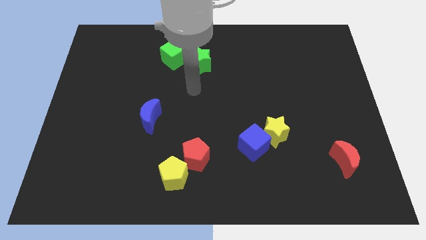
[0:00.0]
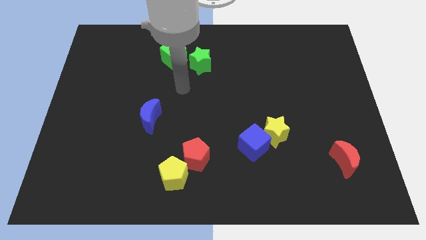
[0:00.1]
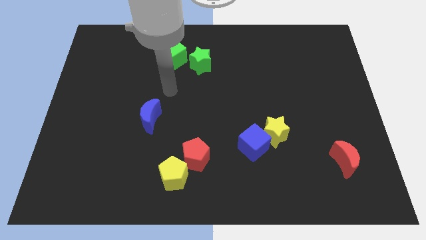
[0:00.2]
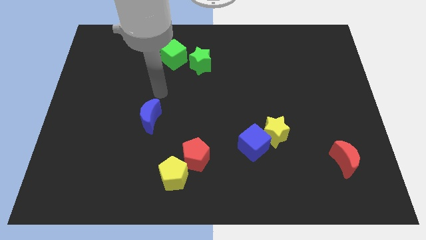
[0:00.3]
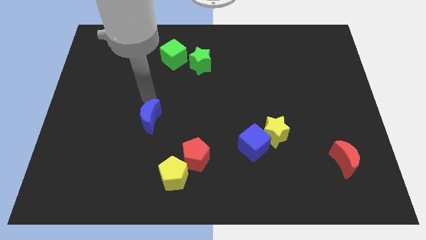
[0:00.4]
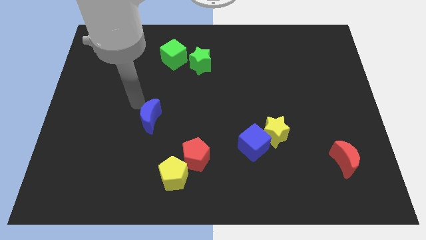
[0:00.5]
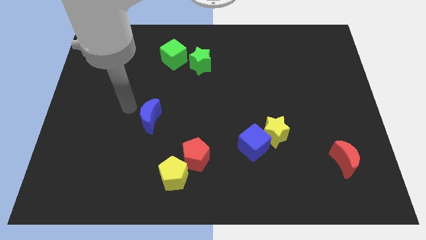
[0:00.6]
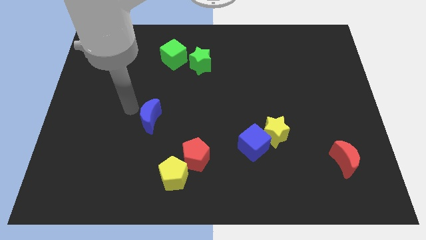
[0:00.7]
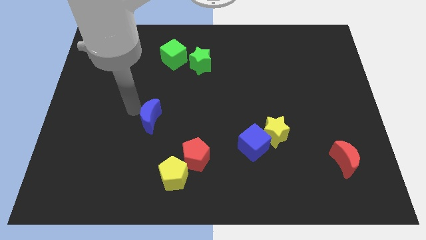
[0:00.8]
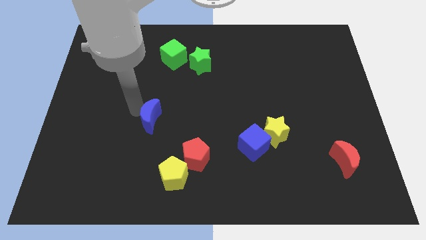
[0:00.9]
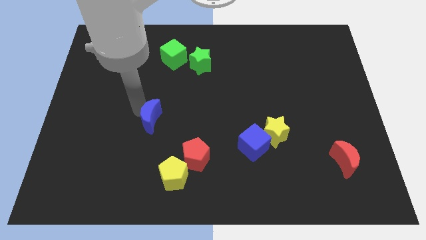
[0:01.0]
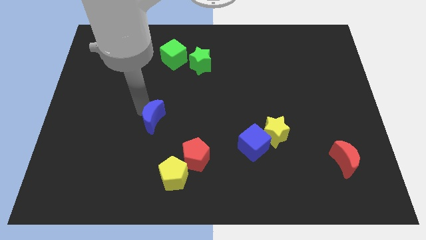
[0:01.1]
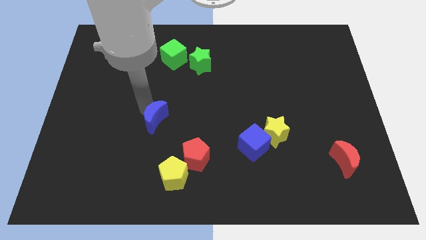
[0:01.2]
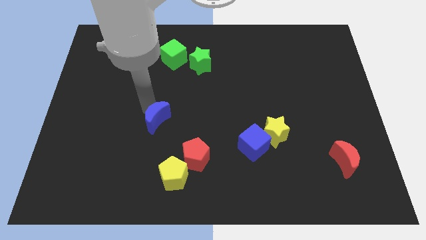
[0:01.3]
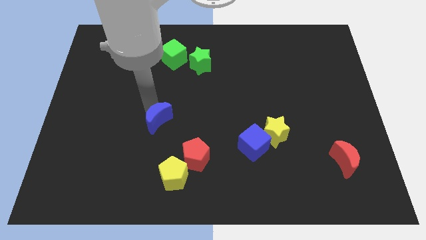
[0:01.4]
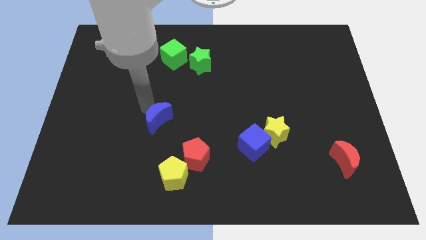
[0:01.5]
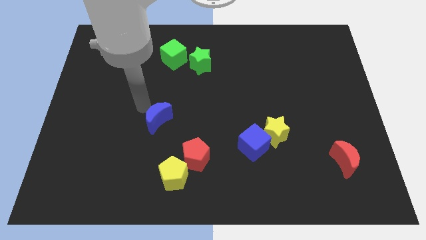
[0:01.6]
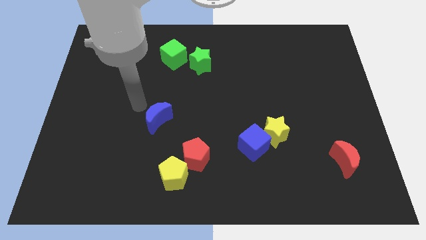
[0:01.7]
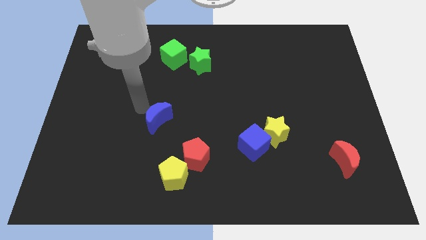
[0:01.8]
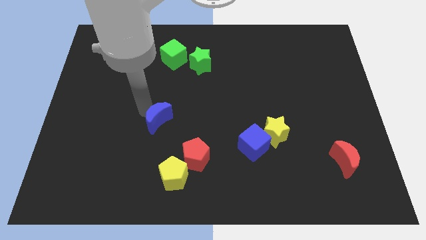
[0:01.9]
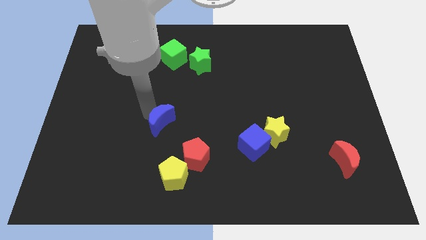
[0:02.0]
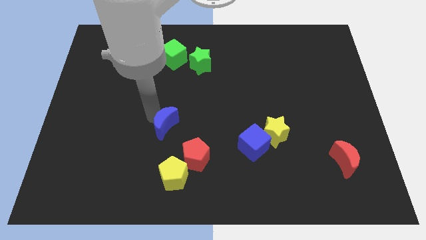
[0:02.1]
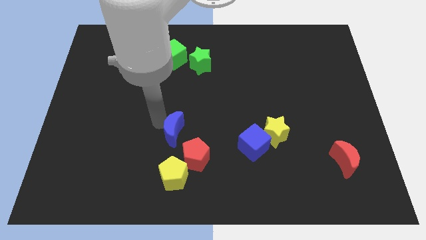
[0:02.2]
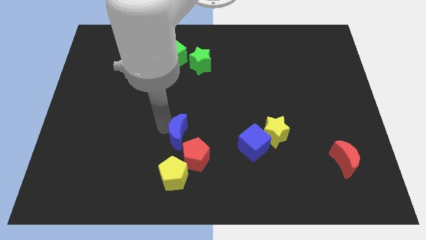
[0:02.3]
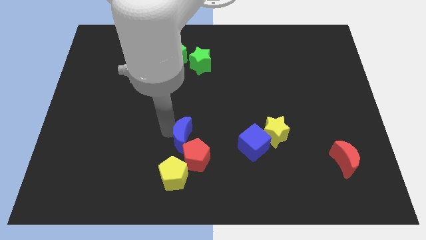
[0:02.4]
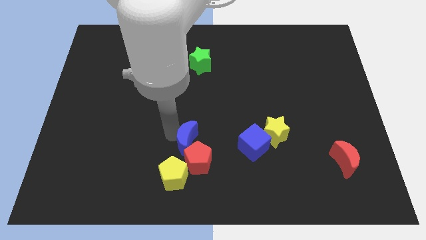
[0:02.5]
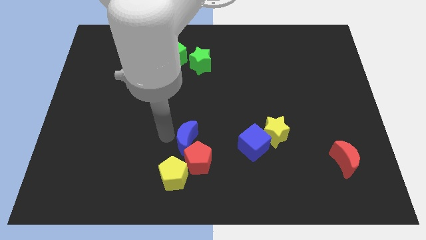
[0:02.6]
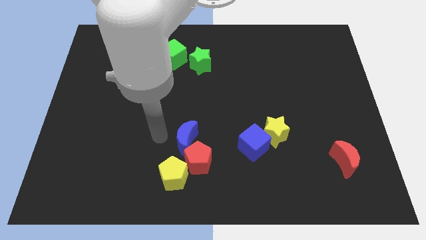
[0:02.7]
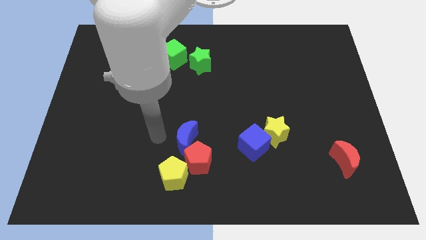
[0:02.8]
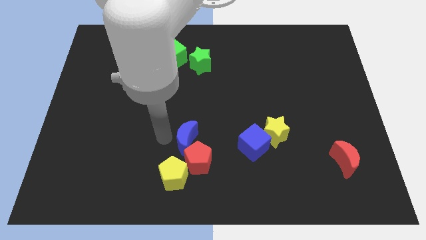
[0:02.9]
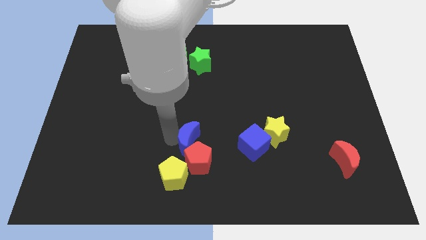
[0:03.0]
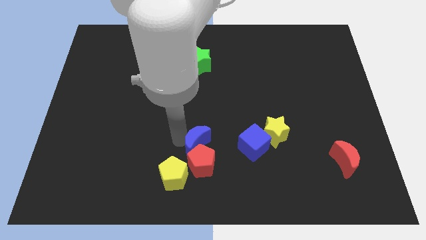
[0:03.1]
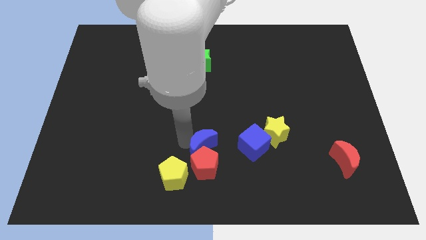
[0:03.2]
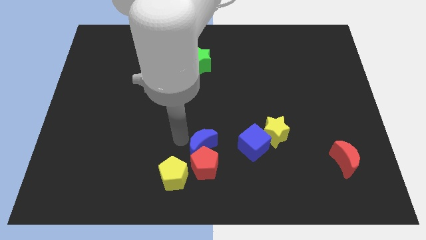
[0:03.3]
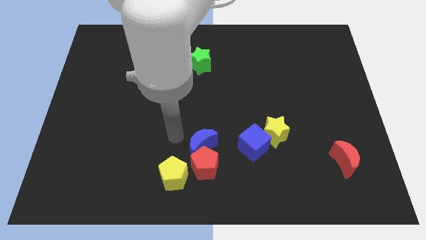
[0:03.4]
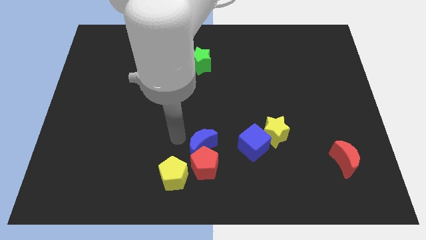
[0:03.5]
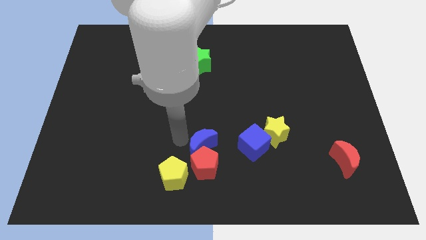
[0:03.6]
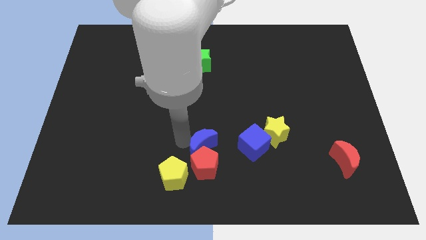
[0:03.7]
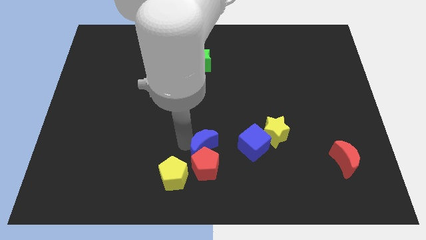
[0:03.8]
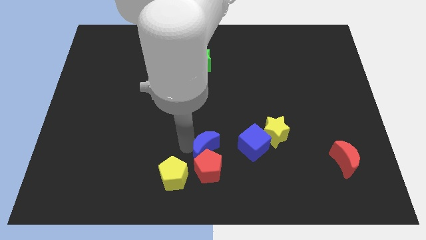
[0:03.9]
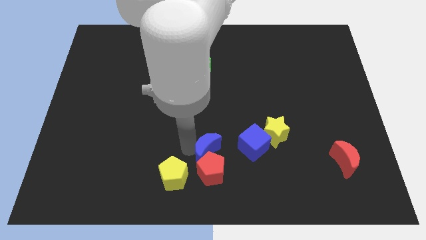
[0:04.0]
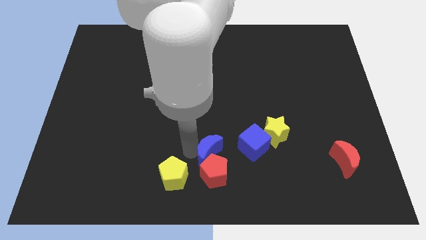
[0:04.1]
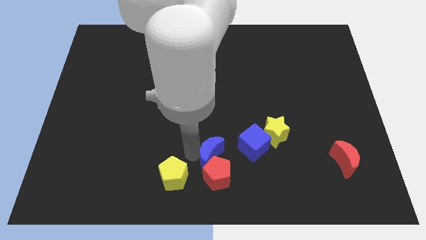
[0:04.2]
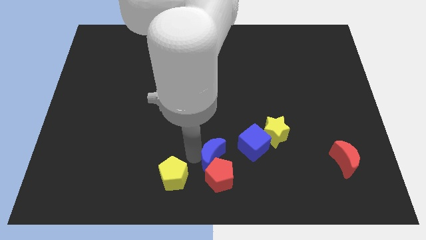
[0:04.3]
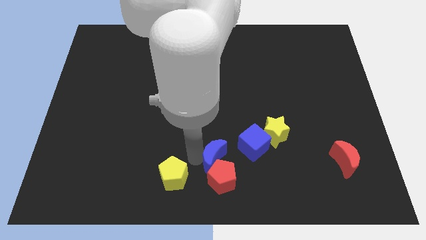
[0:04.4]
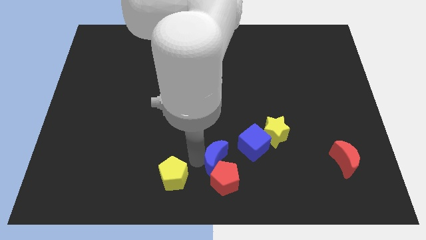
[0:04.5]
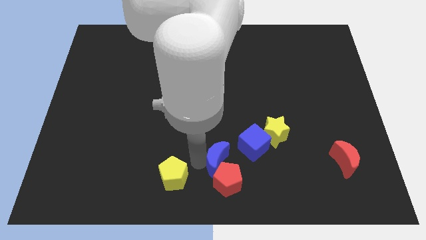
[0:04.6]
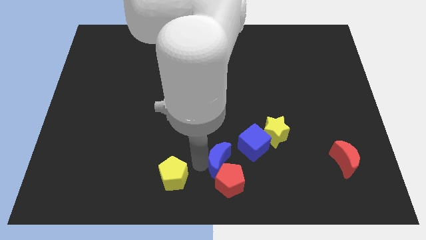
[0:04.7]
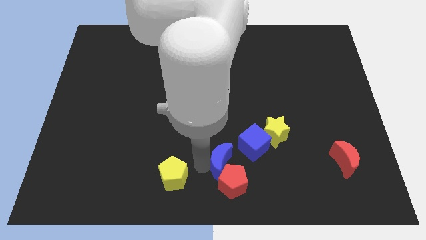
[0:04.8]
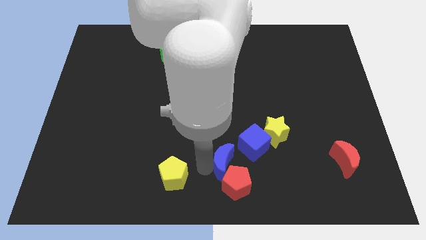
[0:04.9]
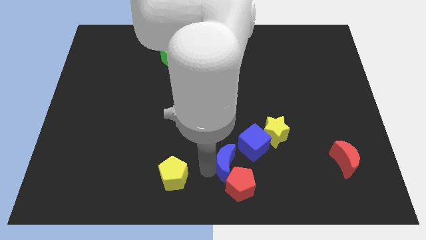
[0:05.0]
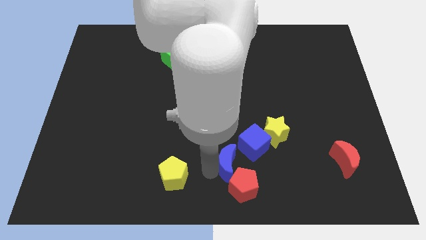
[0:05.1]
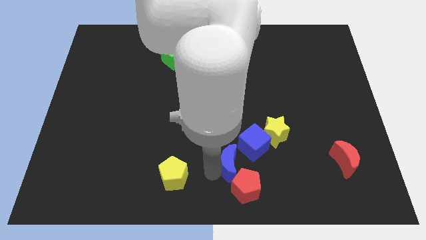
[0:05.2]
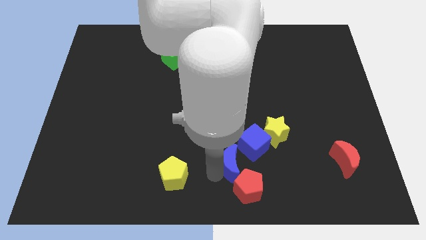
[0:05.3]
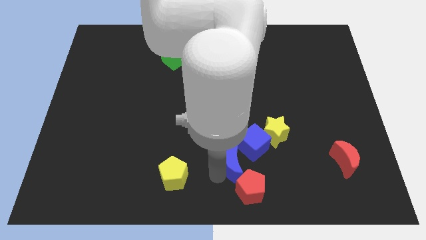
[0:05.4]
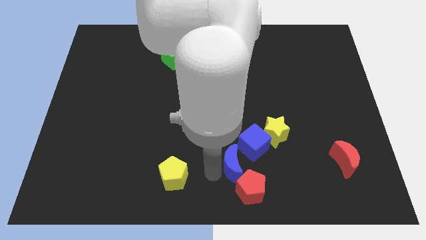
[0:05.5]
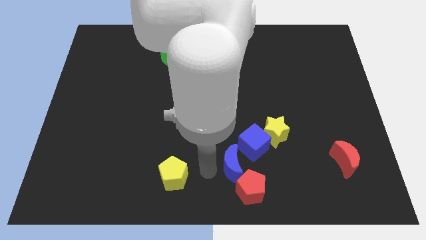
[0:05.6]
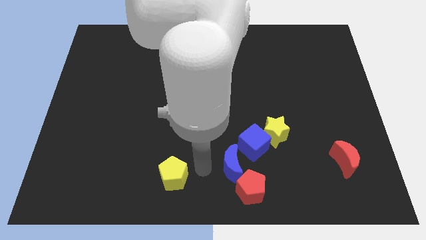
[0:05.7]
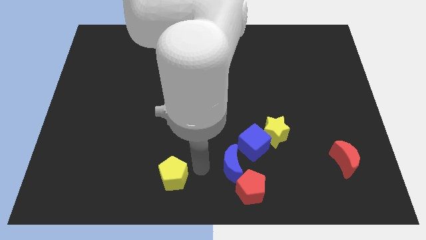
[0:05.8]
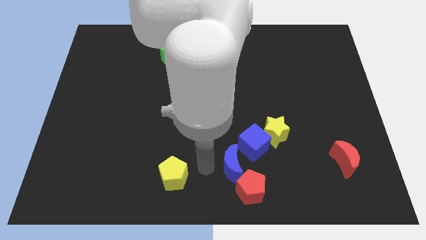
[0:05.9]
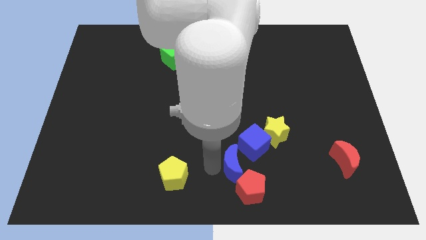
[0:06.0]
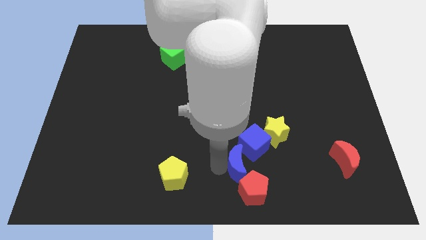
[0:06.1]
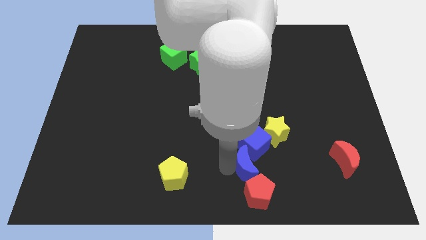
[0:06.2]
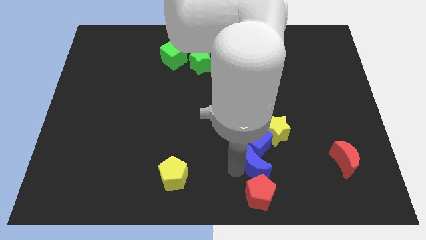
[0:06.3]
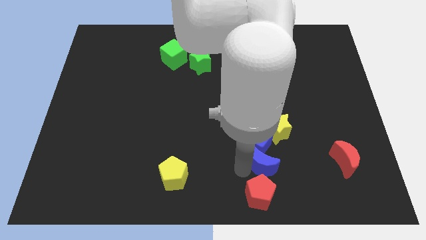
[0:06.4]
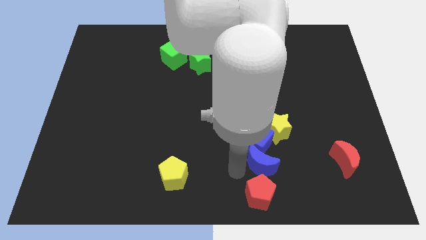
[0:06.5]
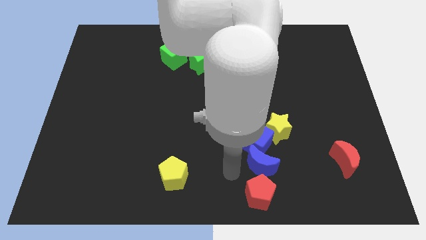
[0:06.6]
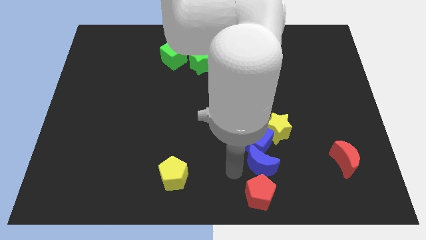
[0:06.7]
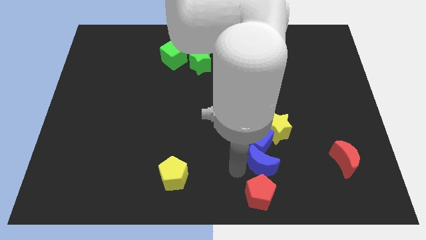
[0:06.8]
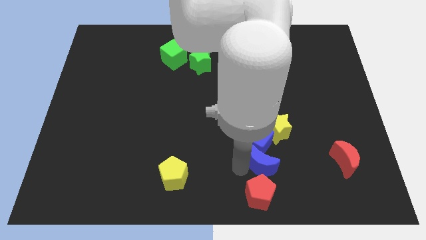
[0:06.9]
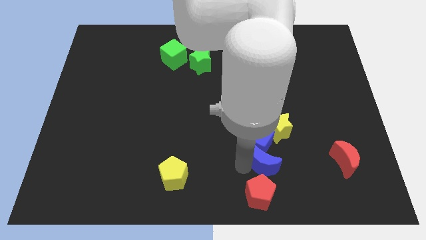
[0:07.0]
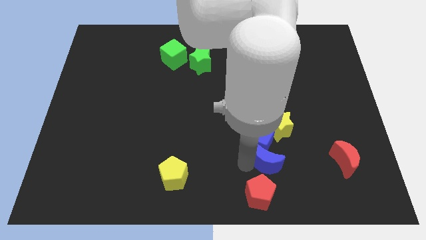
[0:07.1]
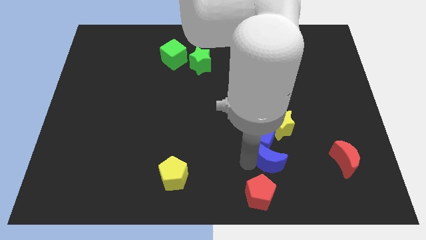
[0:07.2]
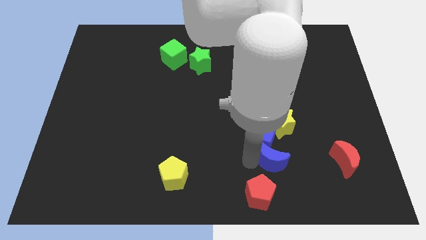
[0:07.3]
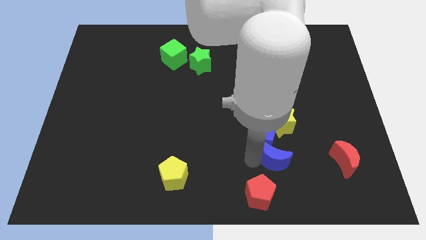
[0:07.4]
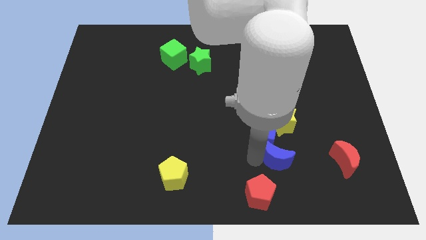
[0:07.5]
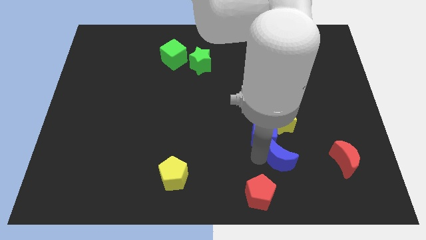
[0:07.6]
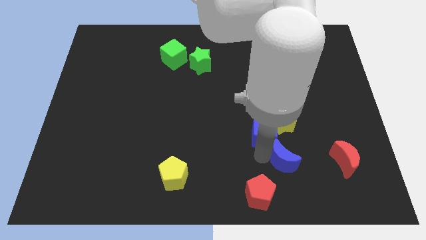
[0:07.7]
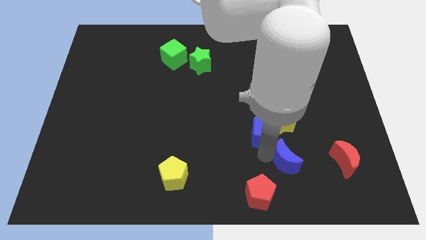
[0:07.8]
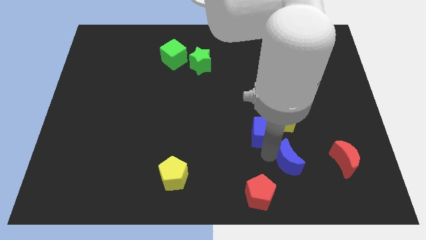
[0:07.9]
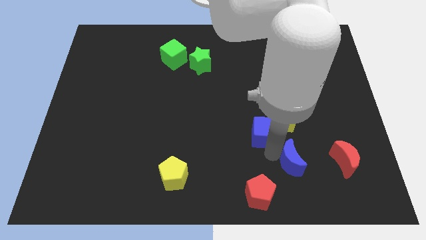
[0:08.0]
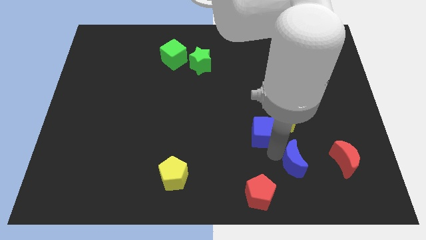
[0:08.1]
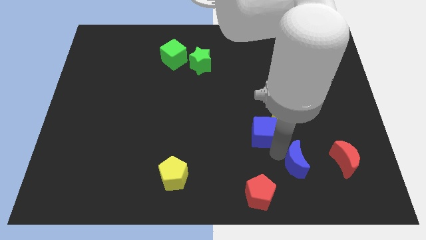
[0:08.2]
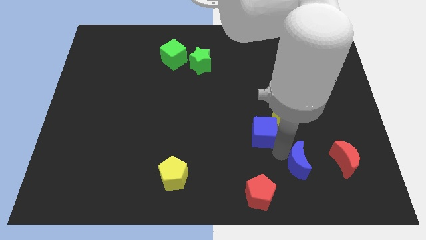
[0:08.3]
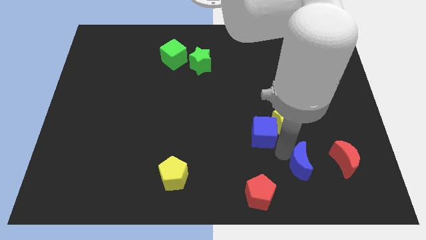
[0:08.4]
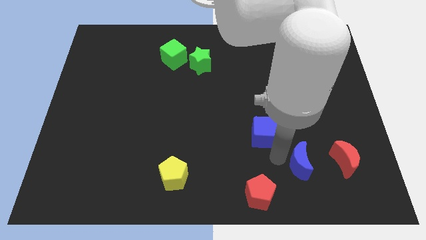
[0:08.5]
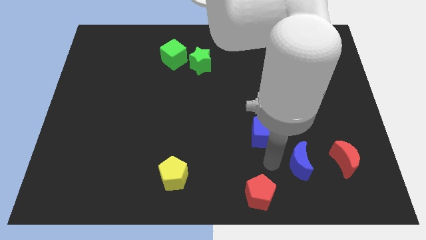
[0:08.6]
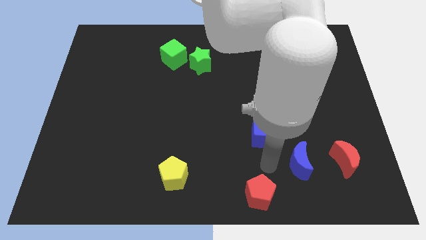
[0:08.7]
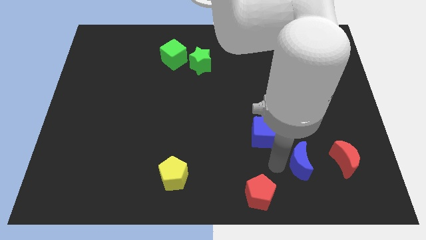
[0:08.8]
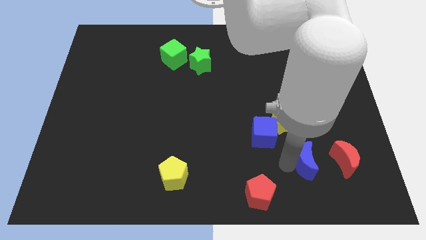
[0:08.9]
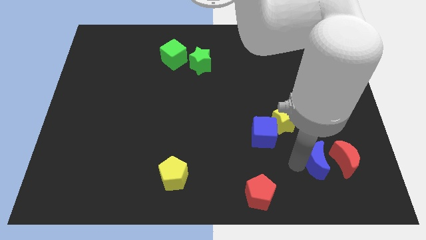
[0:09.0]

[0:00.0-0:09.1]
move the blue moon next to the red moon
